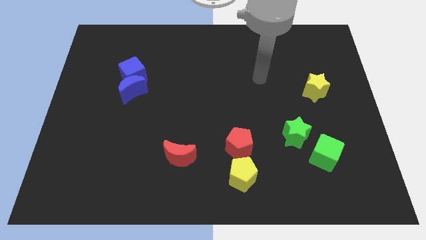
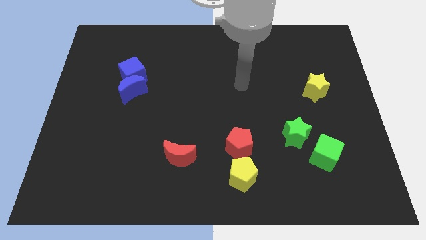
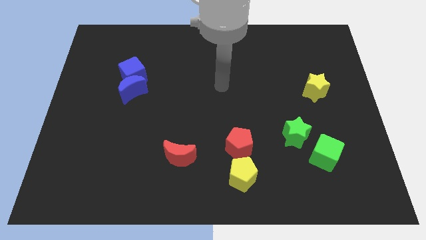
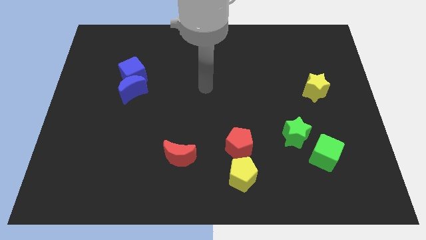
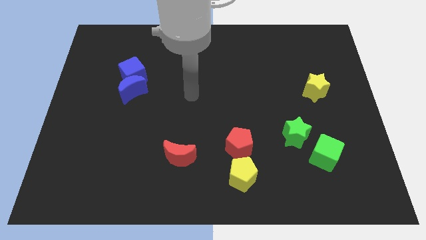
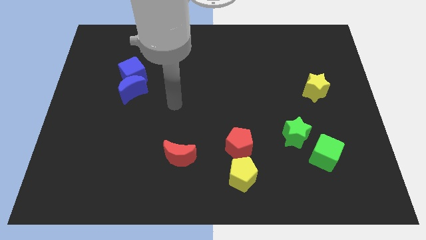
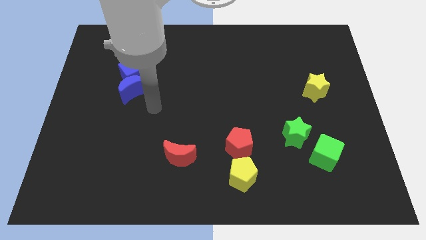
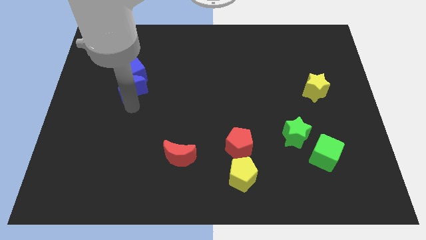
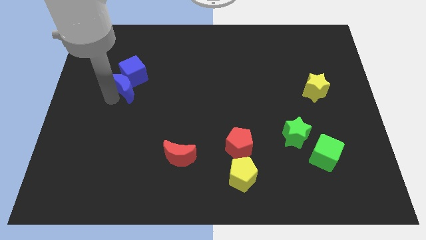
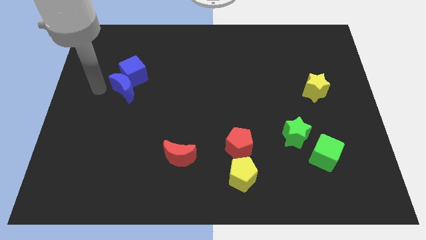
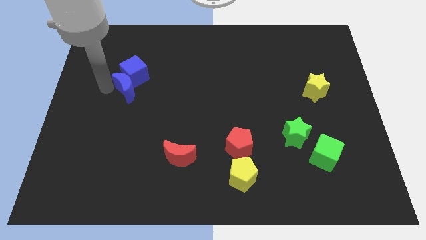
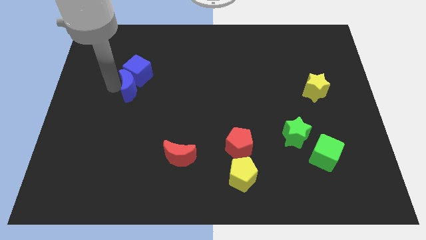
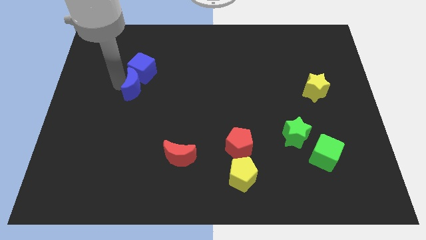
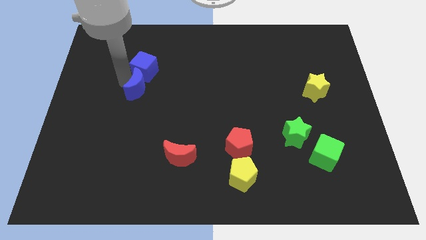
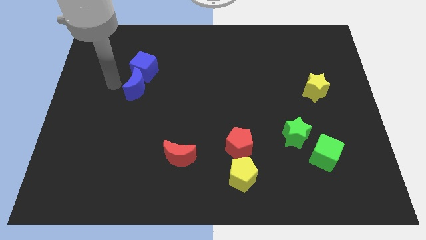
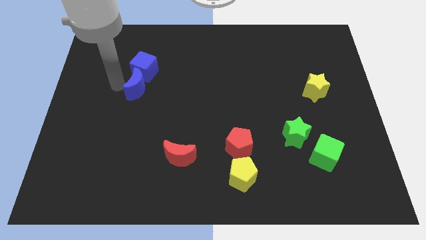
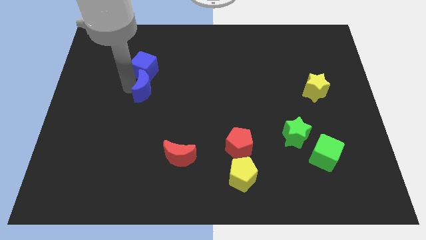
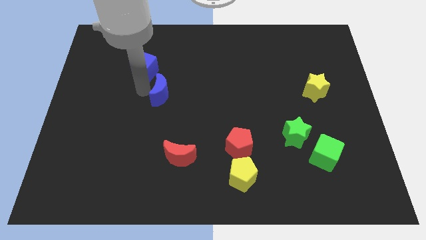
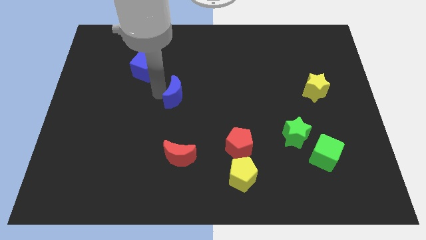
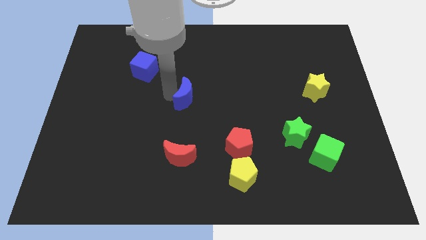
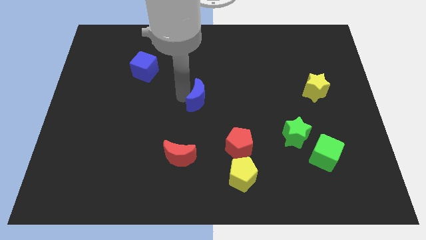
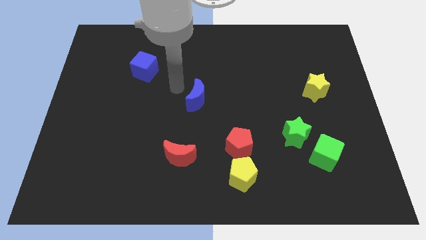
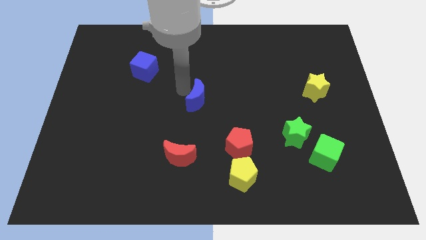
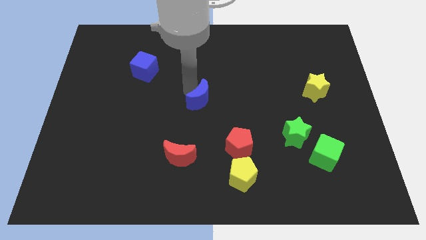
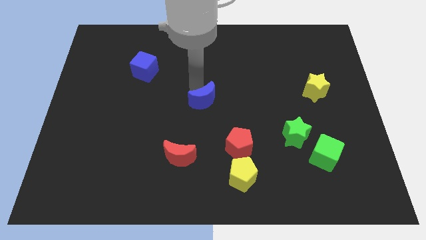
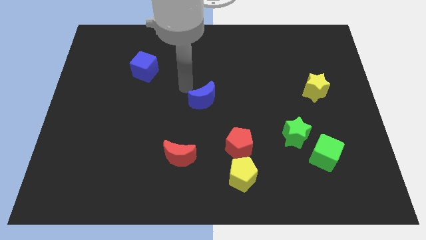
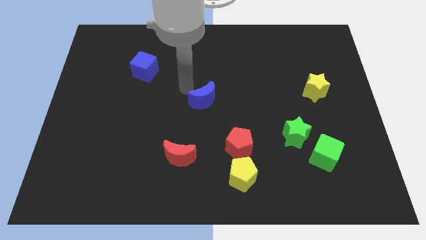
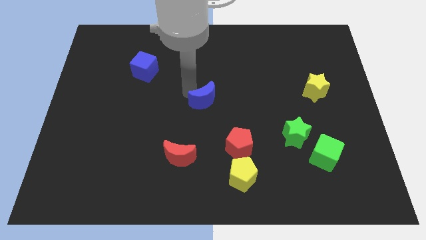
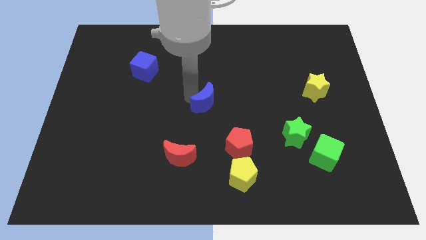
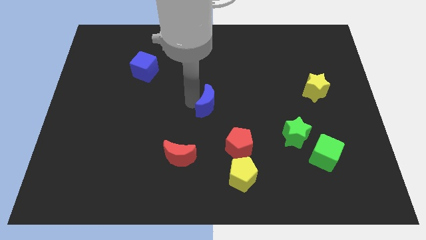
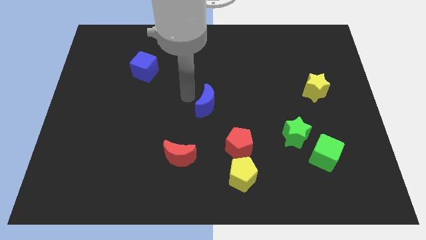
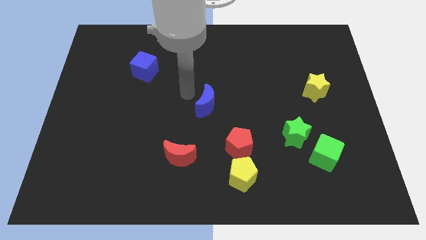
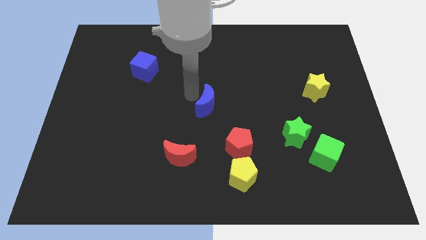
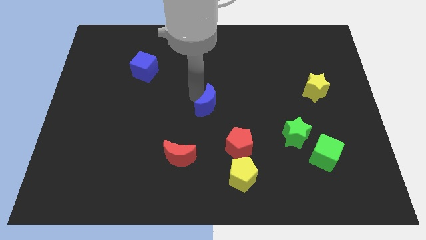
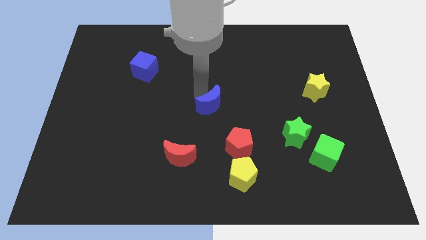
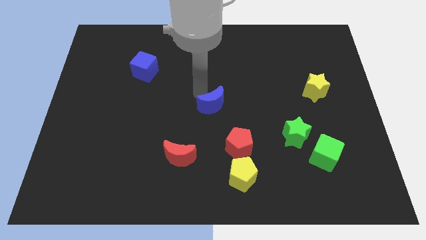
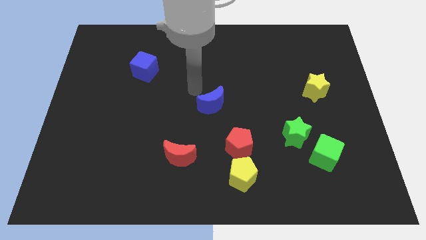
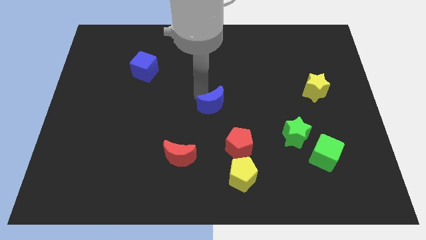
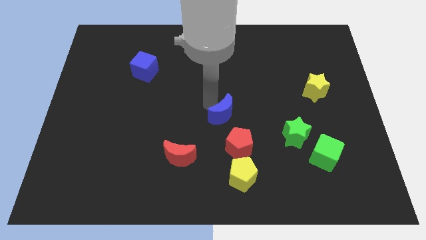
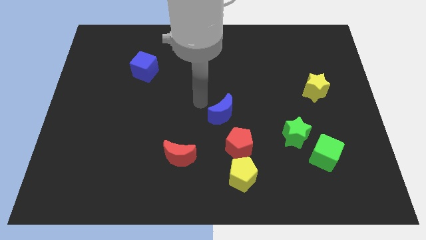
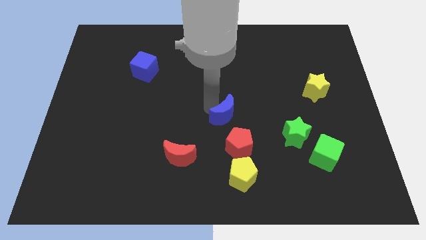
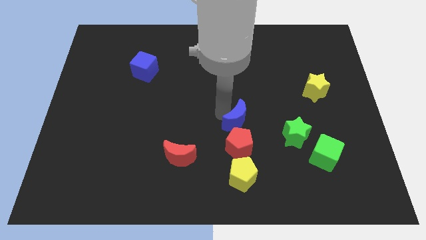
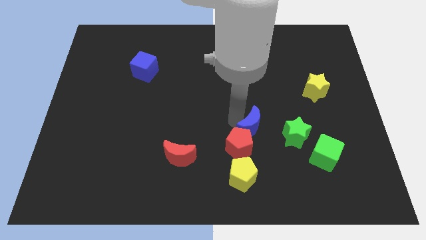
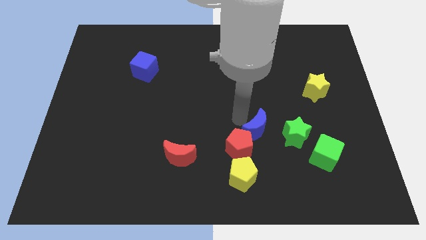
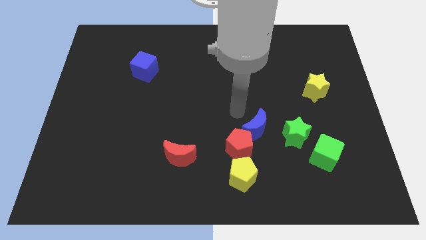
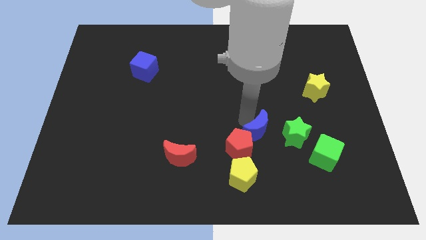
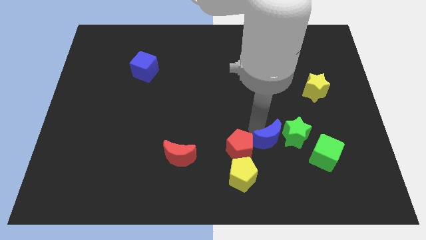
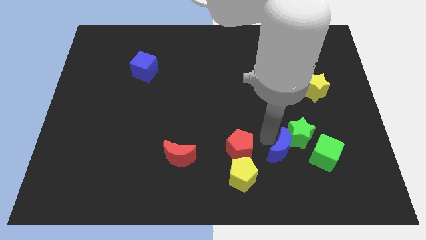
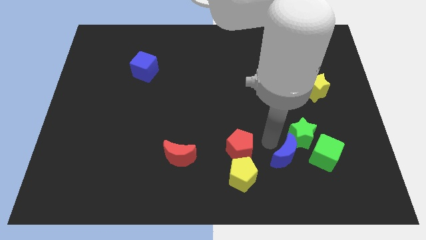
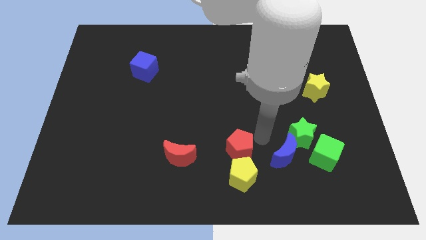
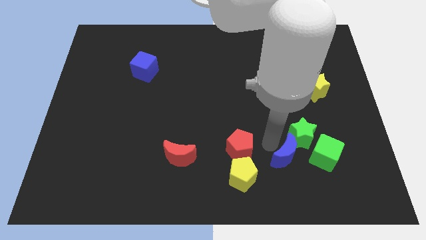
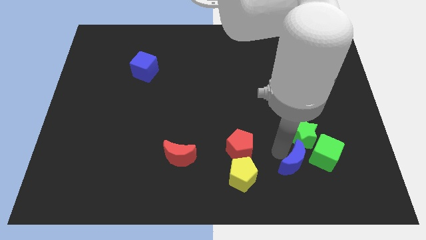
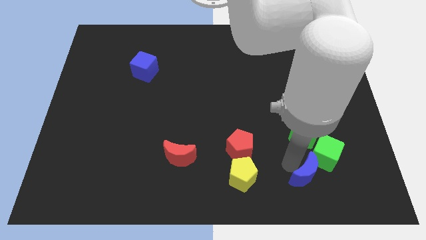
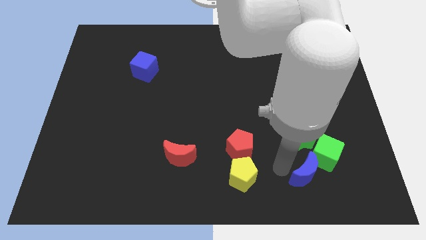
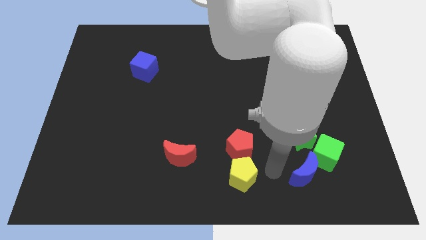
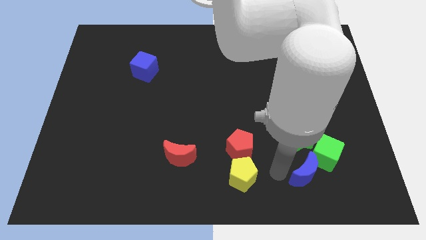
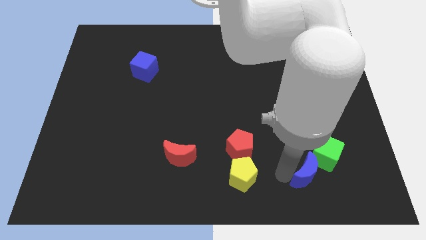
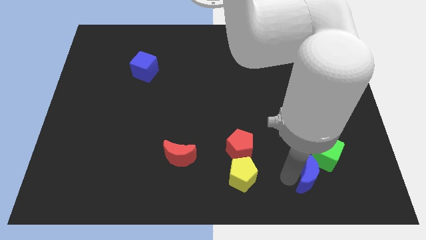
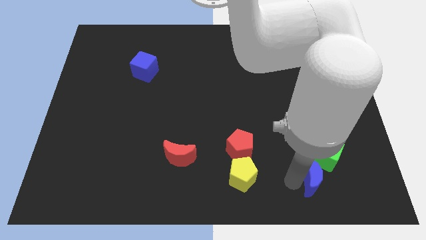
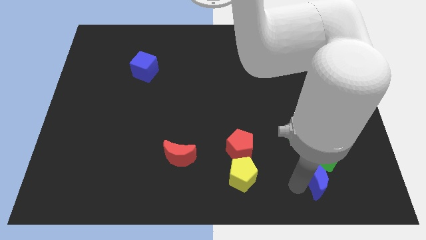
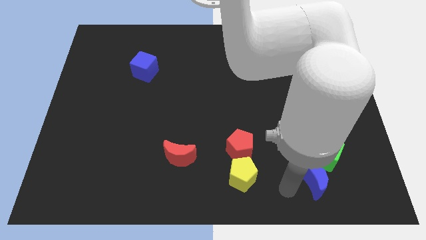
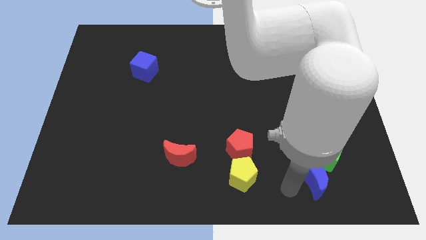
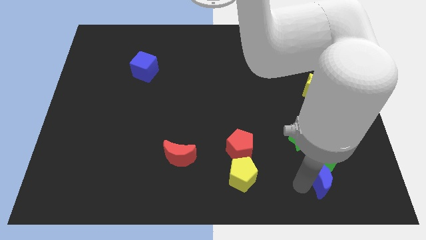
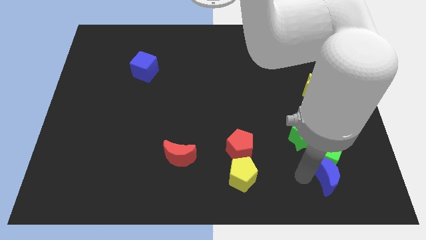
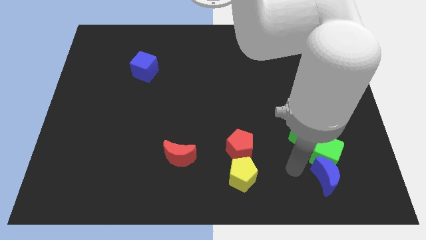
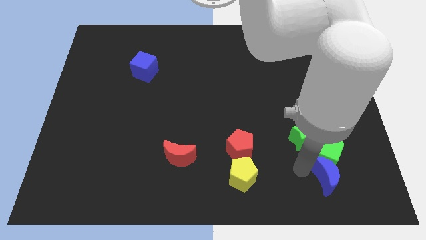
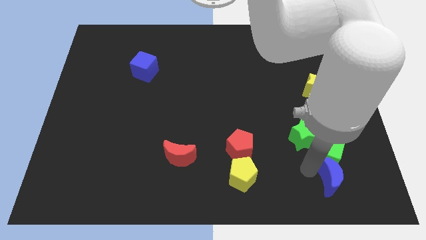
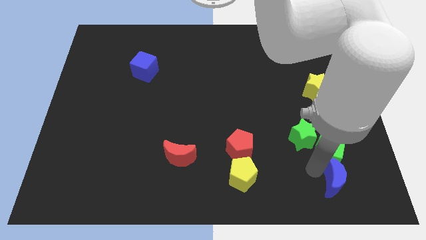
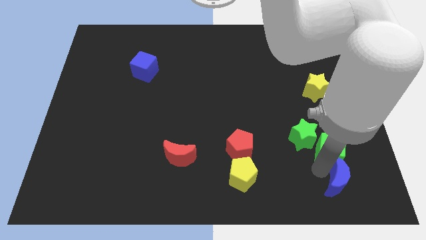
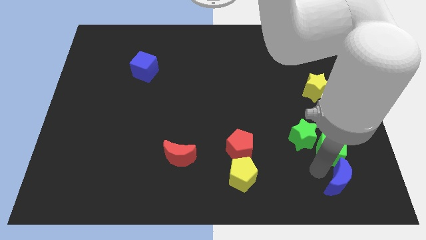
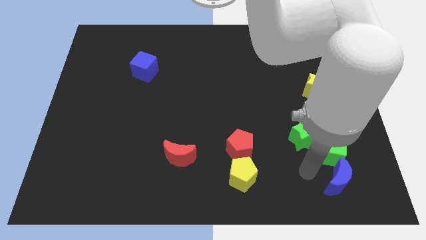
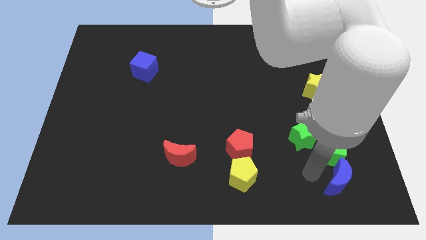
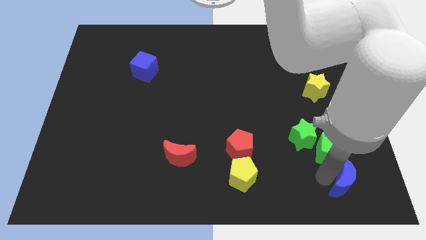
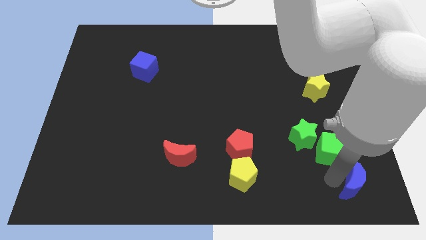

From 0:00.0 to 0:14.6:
push the blue moon to the bottom right corner

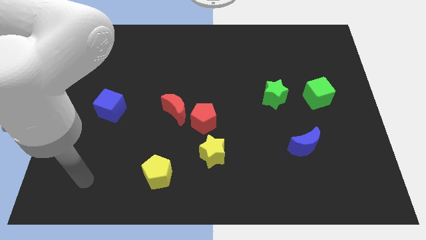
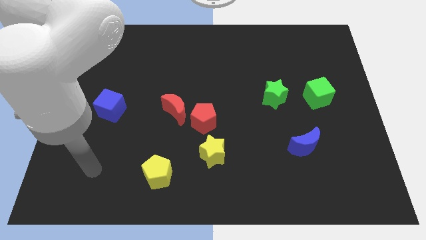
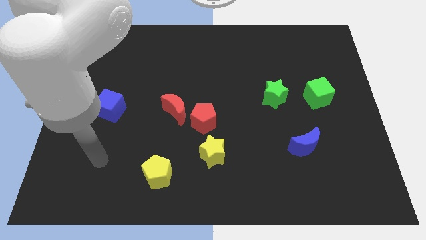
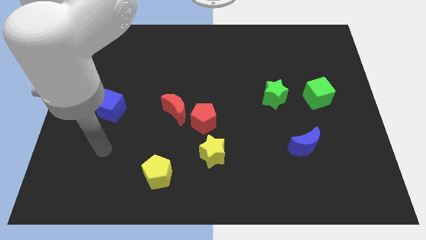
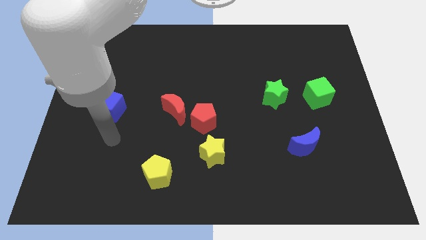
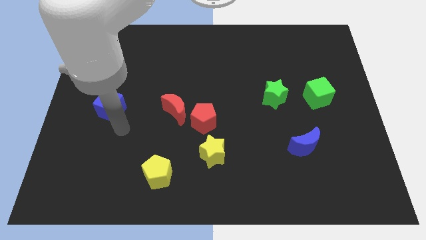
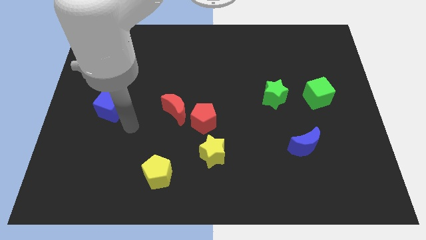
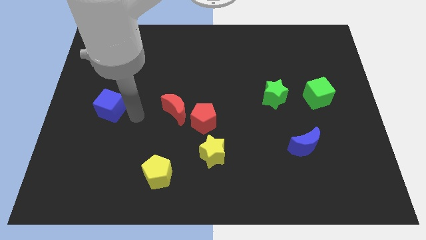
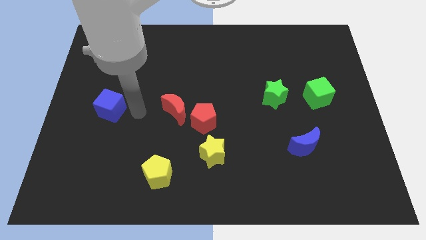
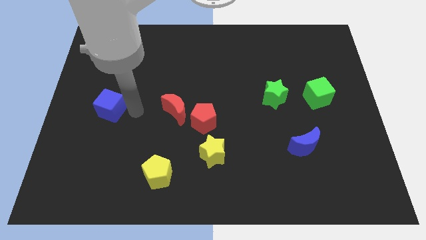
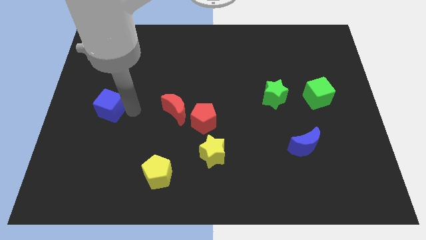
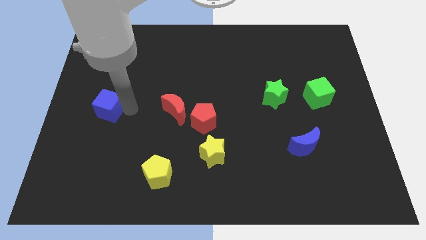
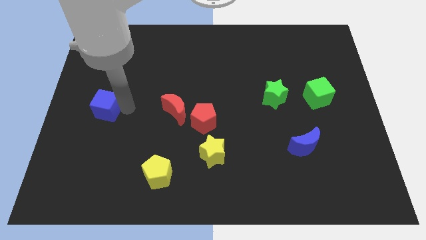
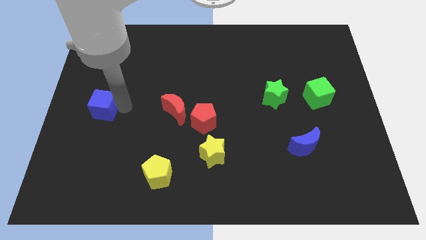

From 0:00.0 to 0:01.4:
move the blue cube to the center left
